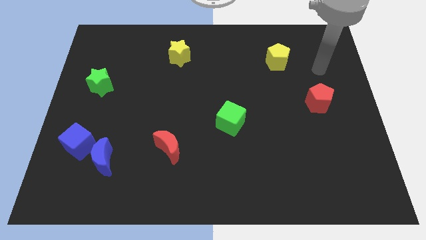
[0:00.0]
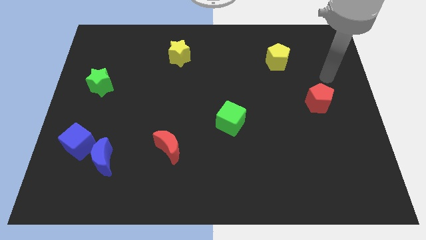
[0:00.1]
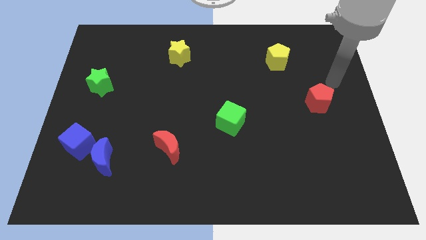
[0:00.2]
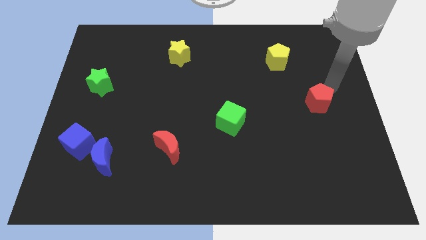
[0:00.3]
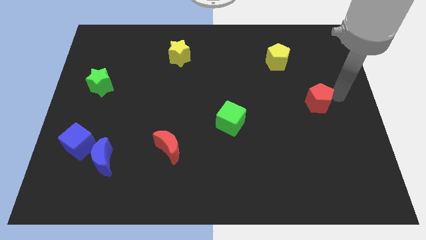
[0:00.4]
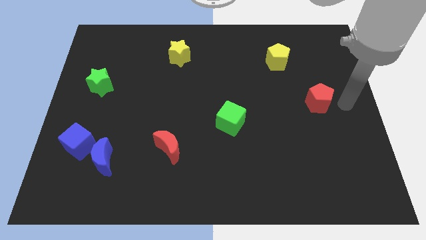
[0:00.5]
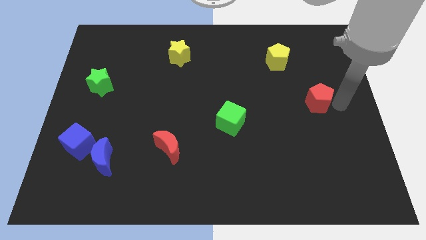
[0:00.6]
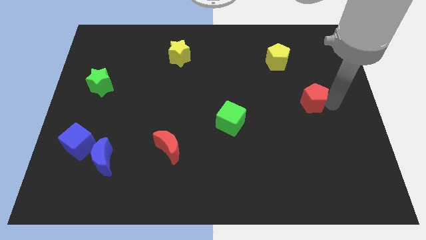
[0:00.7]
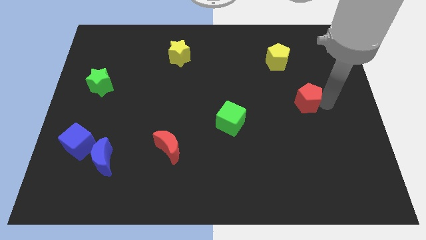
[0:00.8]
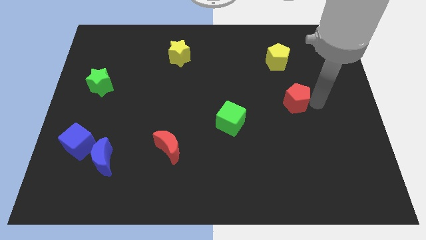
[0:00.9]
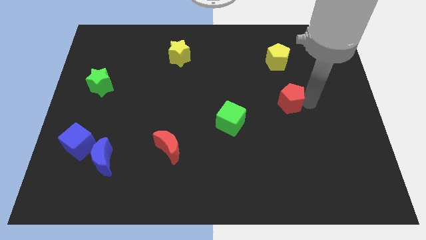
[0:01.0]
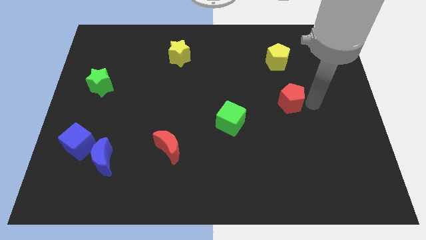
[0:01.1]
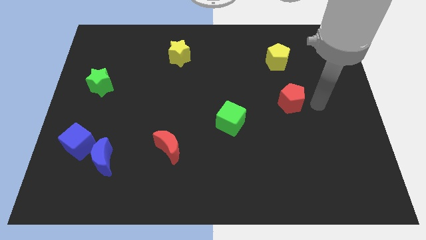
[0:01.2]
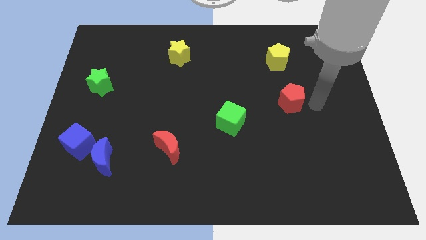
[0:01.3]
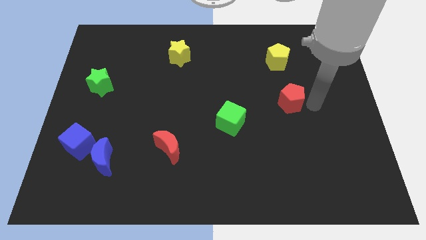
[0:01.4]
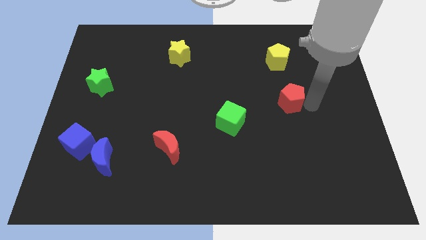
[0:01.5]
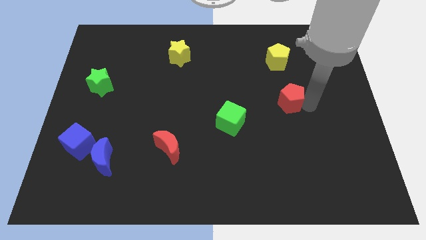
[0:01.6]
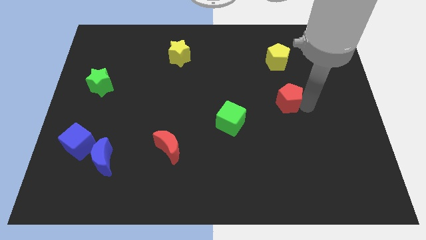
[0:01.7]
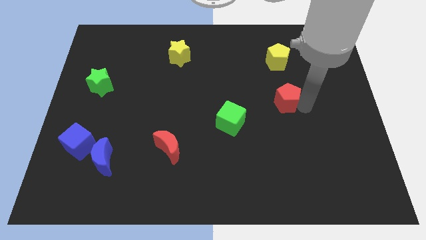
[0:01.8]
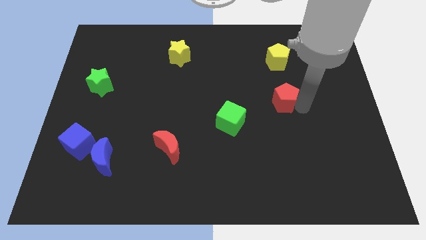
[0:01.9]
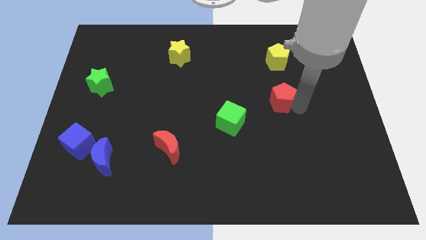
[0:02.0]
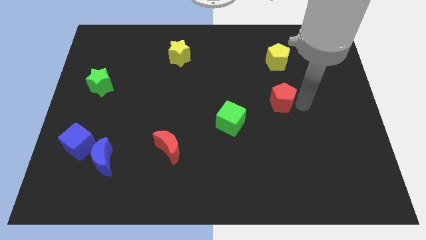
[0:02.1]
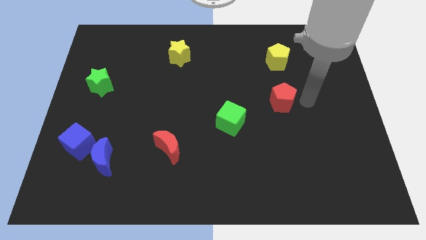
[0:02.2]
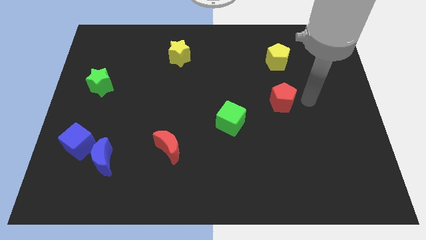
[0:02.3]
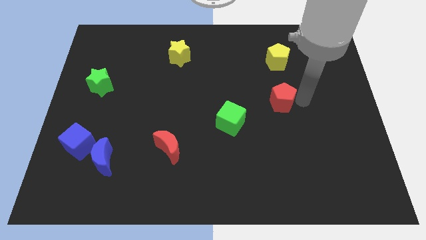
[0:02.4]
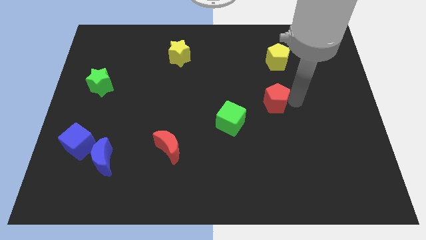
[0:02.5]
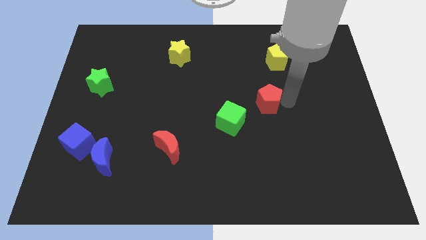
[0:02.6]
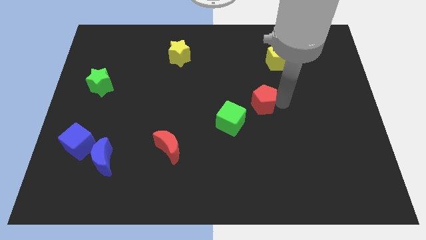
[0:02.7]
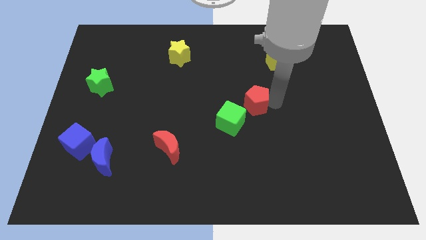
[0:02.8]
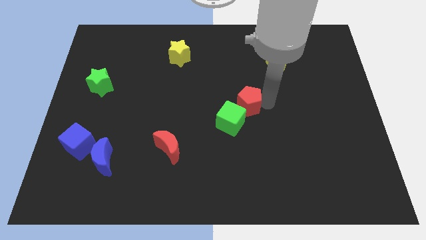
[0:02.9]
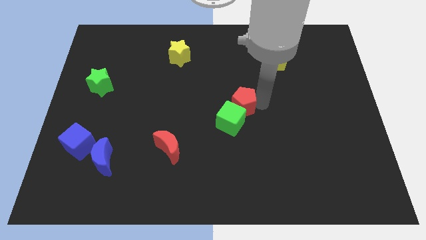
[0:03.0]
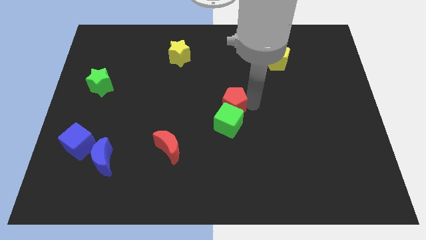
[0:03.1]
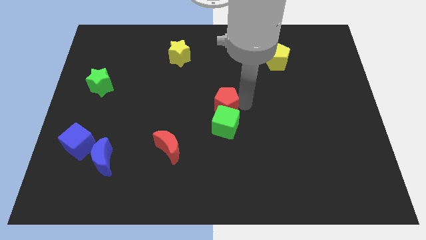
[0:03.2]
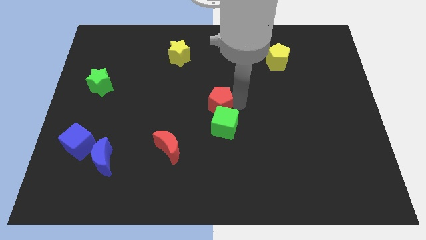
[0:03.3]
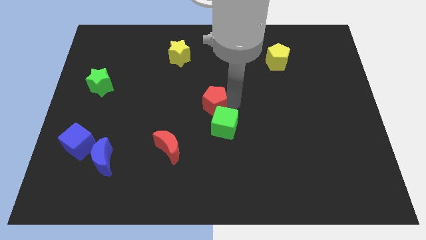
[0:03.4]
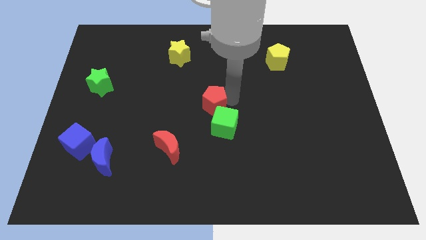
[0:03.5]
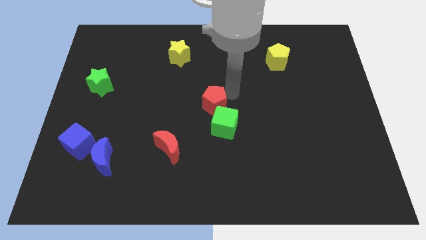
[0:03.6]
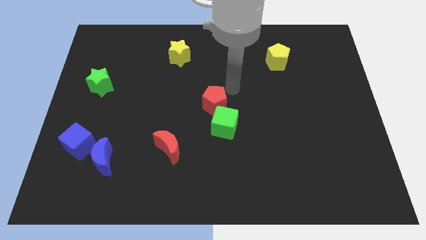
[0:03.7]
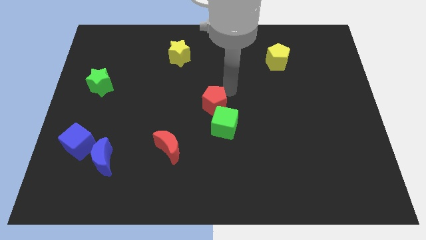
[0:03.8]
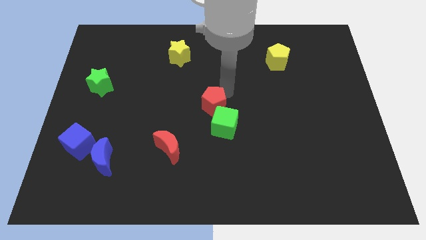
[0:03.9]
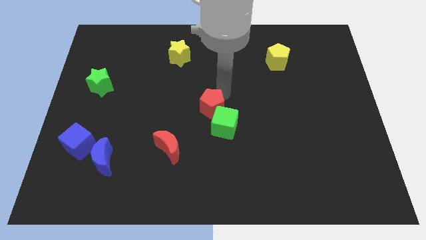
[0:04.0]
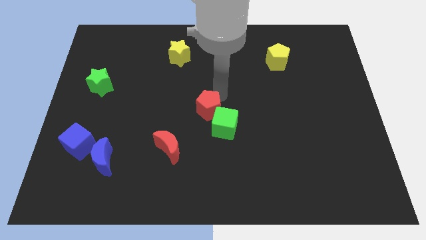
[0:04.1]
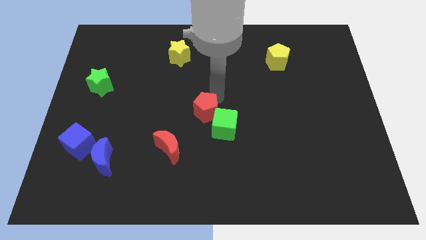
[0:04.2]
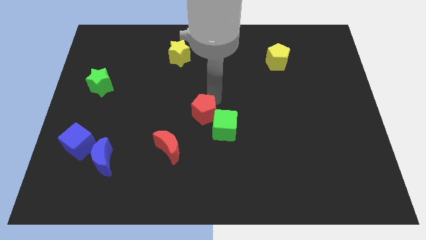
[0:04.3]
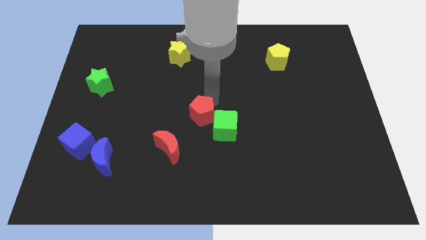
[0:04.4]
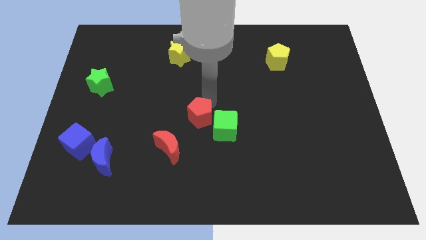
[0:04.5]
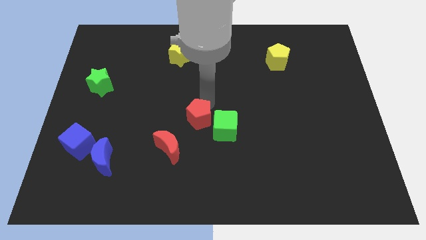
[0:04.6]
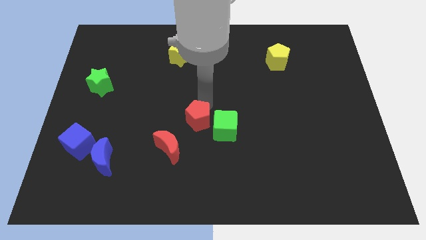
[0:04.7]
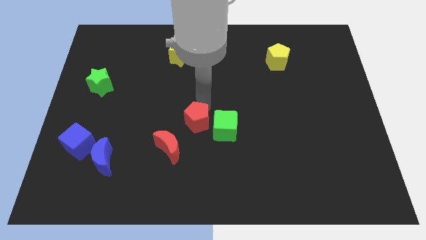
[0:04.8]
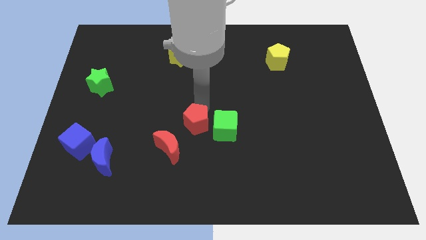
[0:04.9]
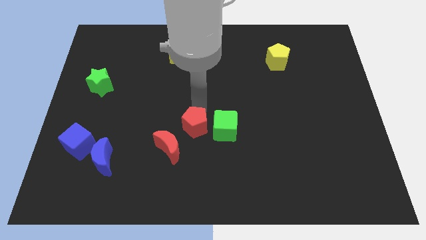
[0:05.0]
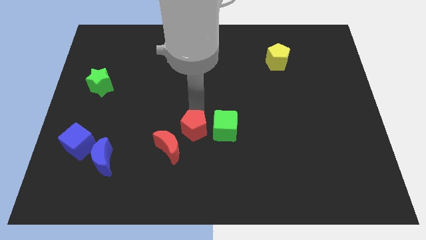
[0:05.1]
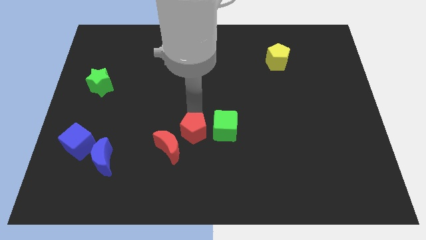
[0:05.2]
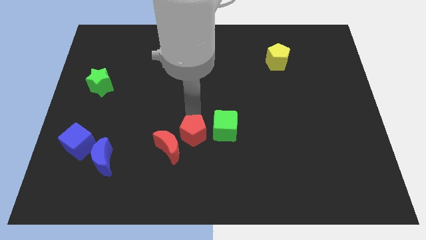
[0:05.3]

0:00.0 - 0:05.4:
slide the red pentagon to the red moon

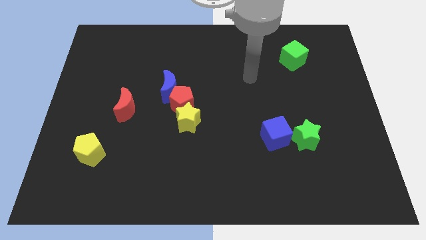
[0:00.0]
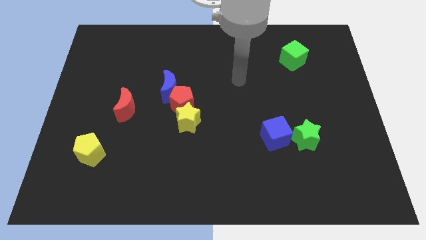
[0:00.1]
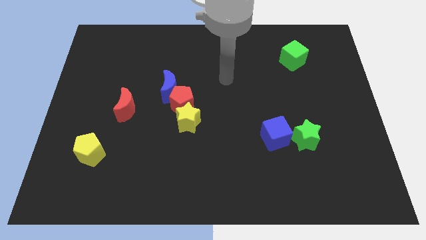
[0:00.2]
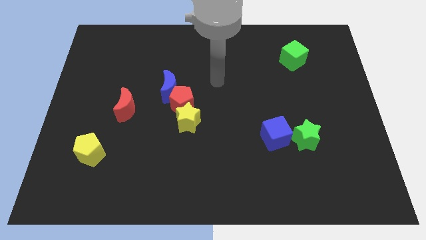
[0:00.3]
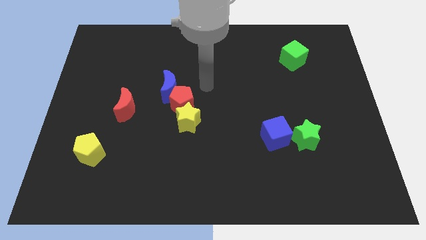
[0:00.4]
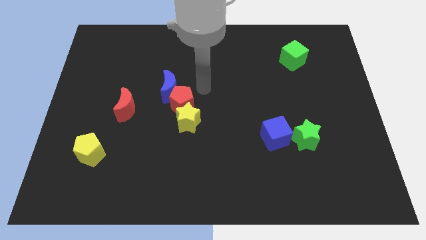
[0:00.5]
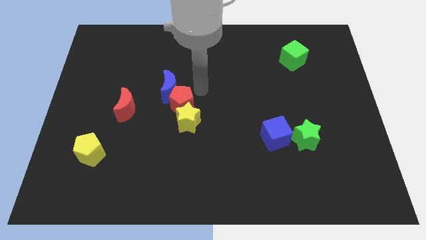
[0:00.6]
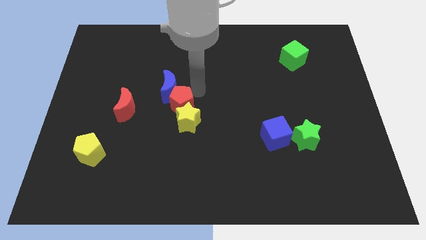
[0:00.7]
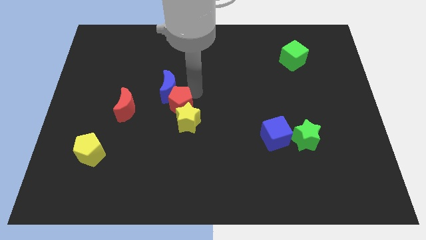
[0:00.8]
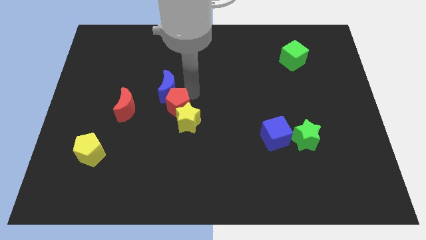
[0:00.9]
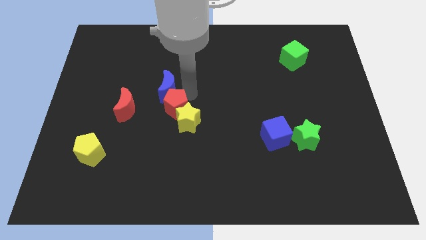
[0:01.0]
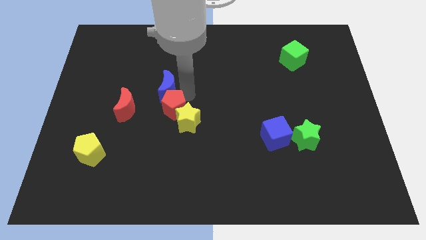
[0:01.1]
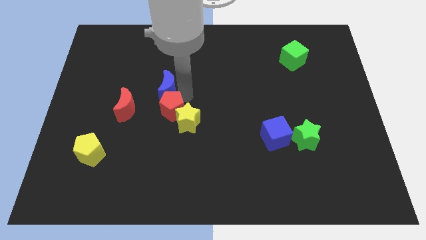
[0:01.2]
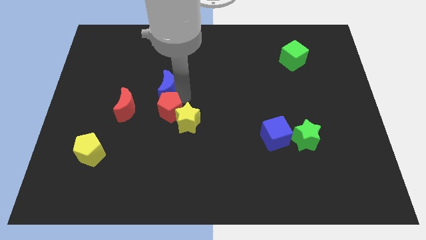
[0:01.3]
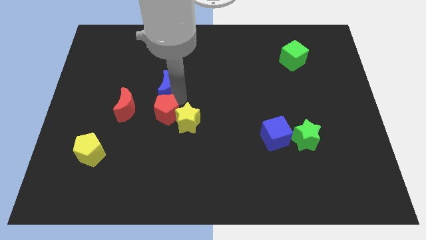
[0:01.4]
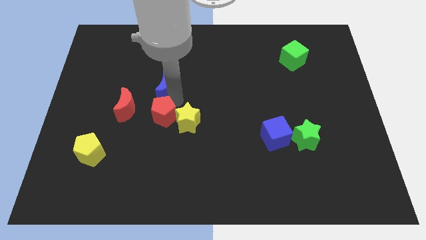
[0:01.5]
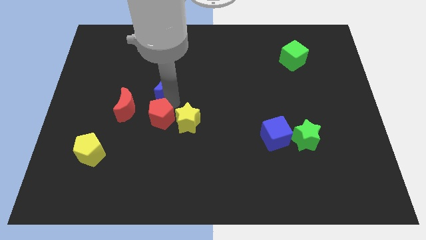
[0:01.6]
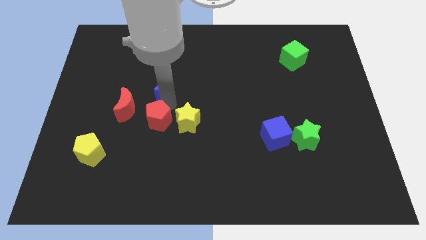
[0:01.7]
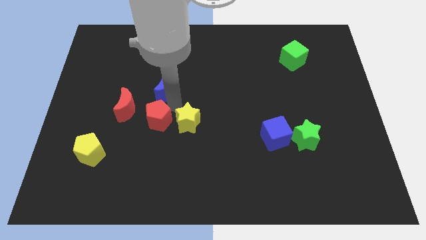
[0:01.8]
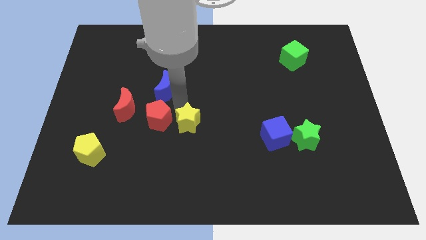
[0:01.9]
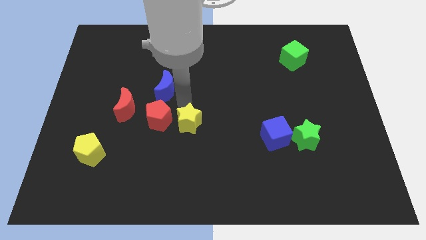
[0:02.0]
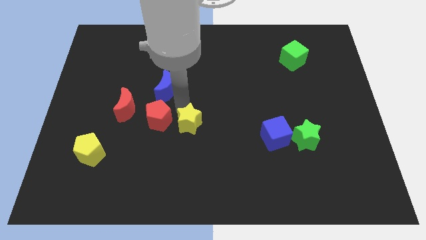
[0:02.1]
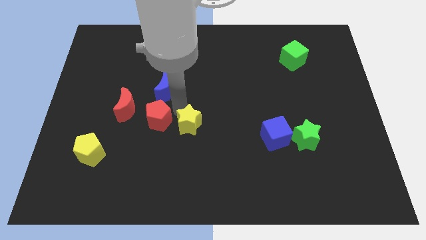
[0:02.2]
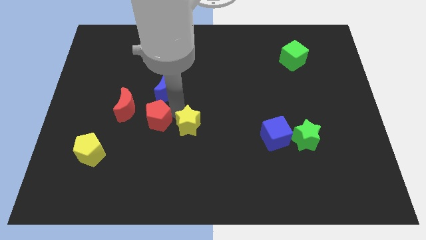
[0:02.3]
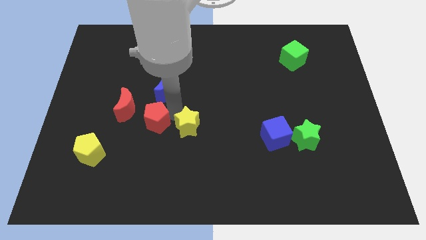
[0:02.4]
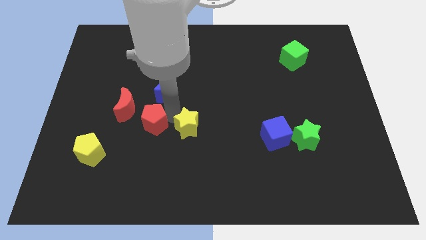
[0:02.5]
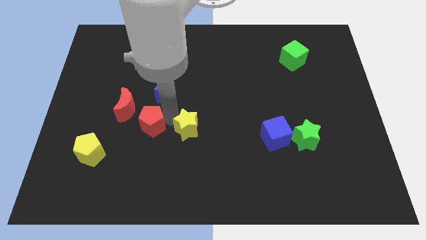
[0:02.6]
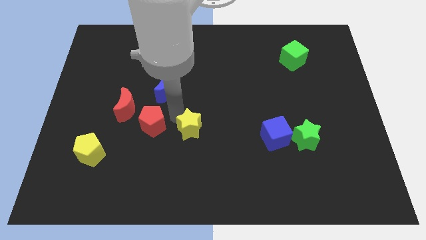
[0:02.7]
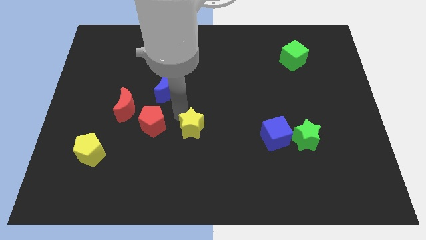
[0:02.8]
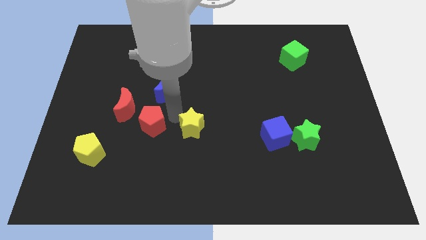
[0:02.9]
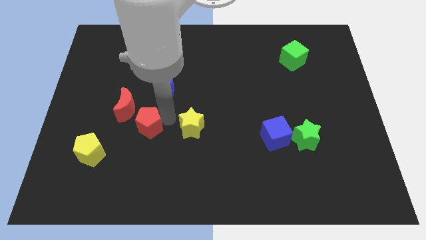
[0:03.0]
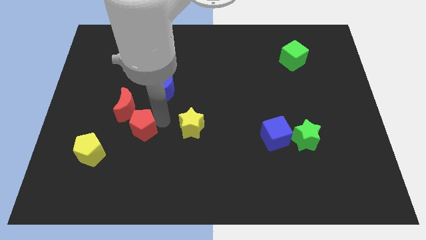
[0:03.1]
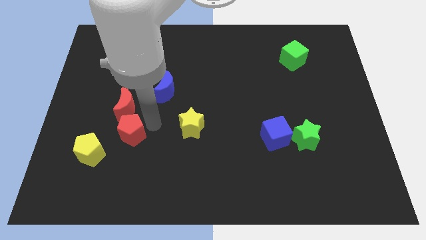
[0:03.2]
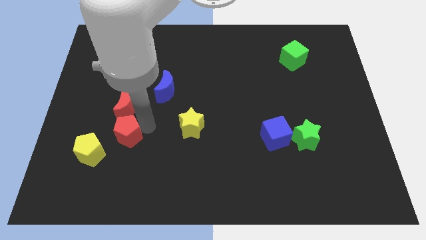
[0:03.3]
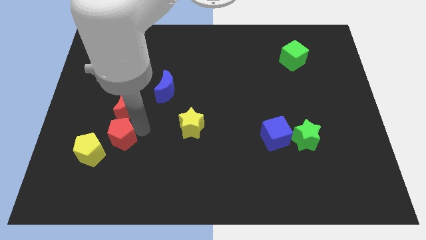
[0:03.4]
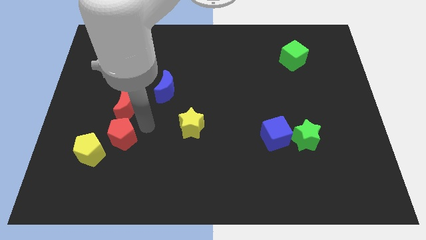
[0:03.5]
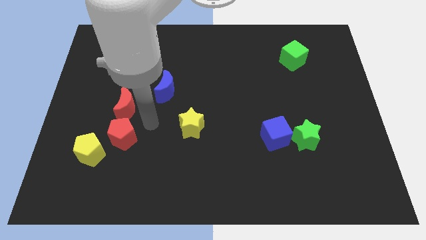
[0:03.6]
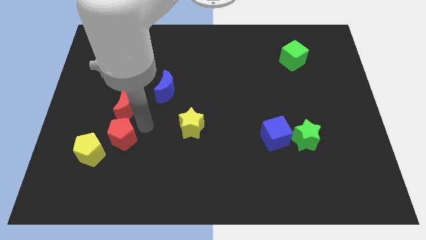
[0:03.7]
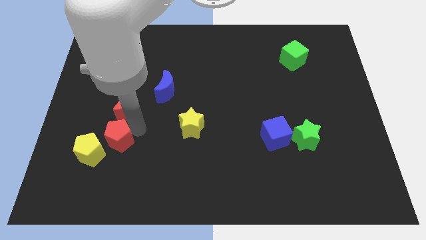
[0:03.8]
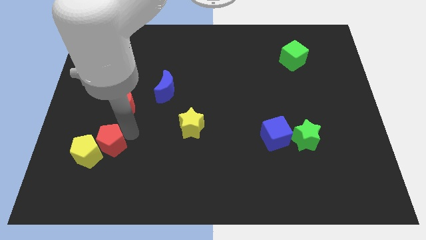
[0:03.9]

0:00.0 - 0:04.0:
move the red pentagon next to the yellow pentagon
